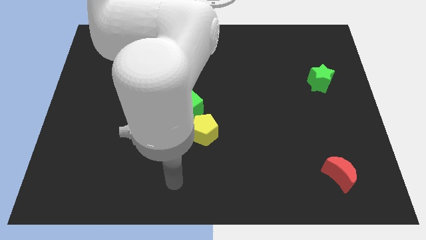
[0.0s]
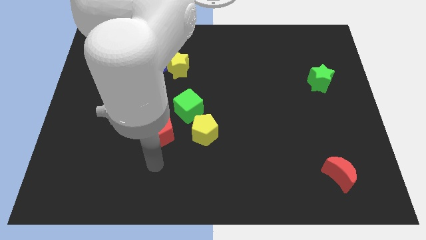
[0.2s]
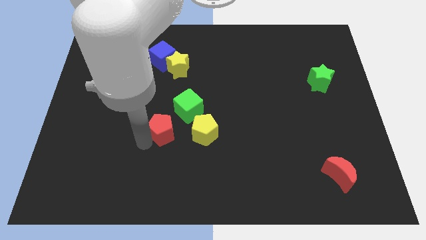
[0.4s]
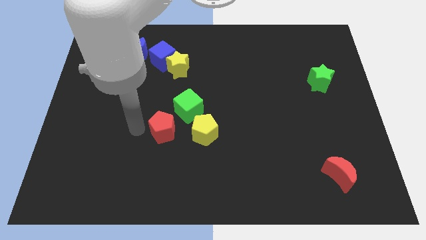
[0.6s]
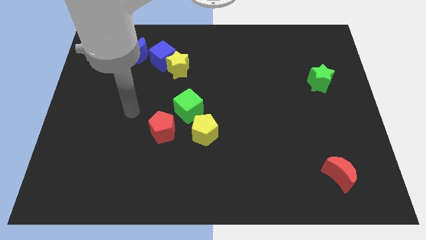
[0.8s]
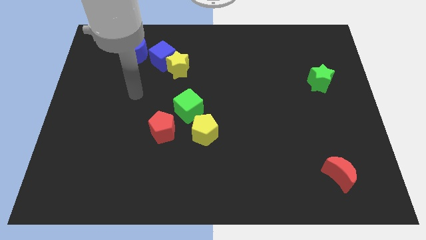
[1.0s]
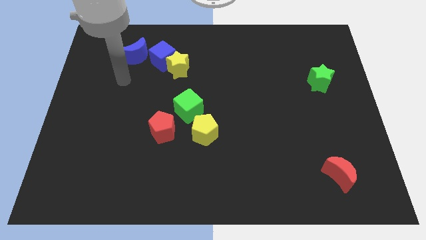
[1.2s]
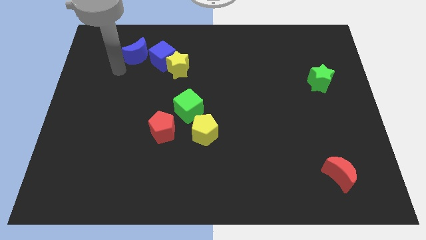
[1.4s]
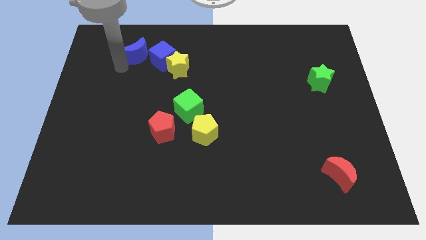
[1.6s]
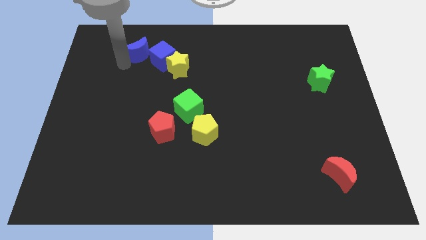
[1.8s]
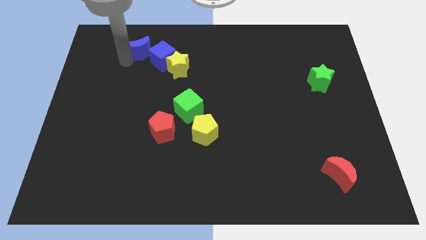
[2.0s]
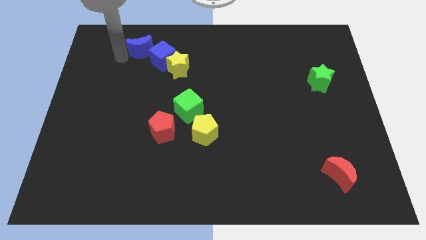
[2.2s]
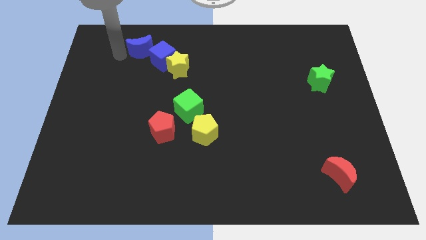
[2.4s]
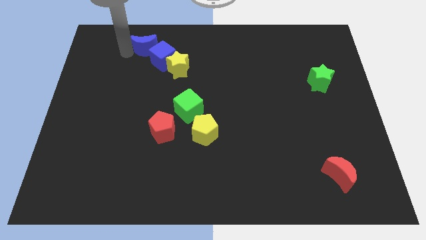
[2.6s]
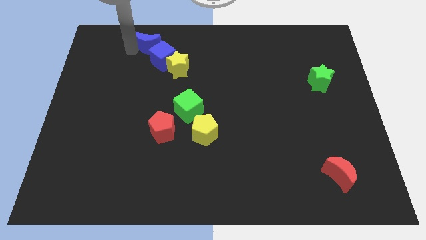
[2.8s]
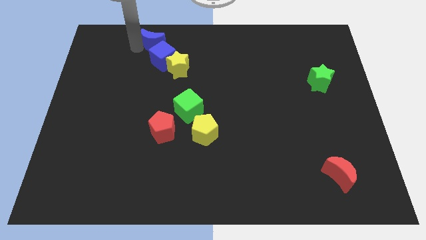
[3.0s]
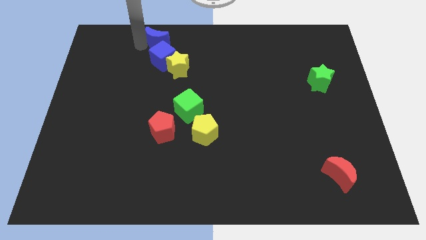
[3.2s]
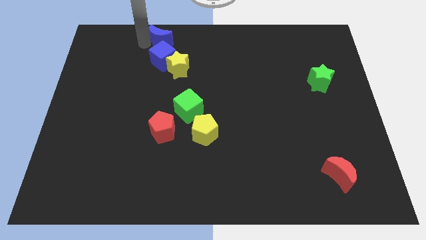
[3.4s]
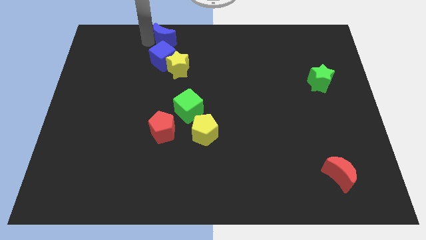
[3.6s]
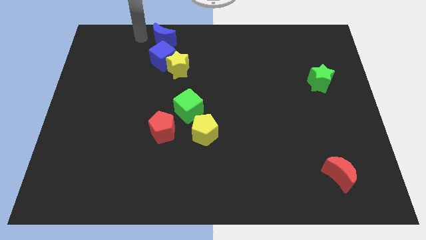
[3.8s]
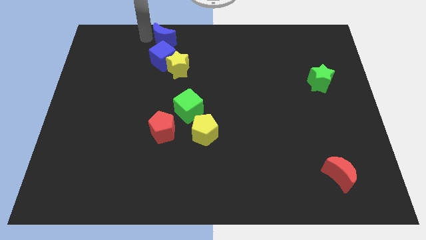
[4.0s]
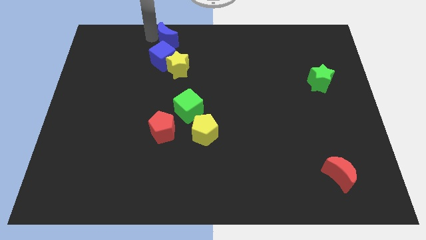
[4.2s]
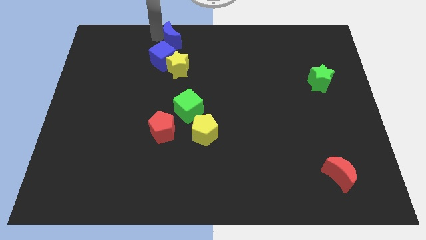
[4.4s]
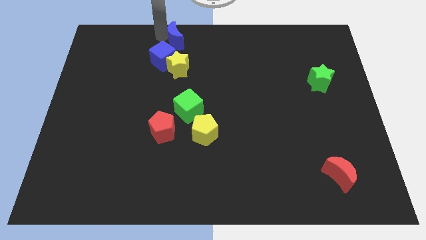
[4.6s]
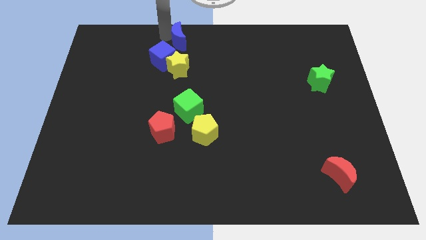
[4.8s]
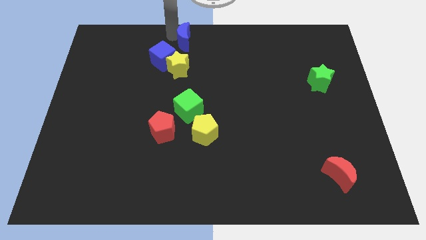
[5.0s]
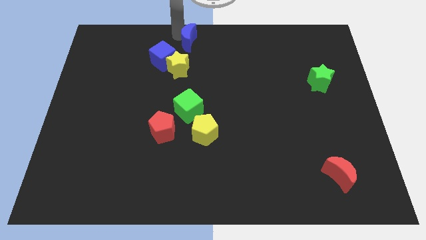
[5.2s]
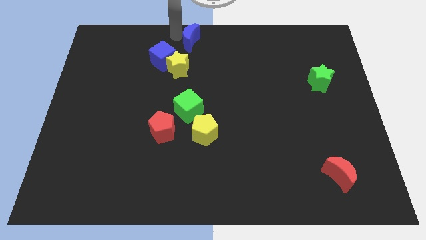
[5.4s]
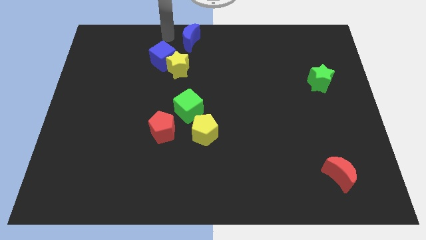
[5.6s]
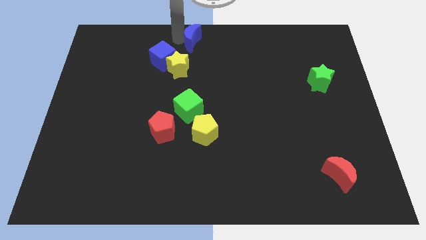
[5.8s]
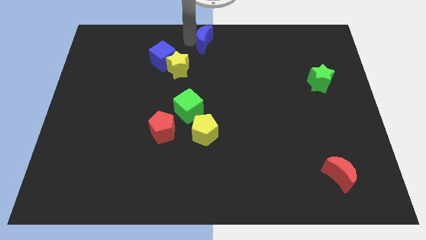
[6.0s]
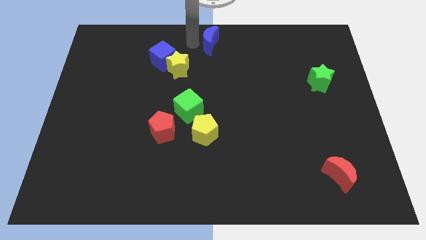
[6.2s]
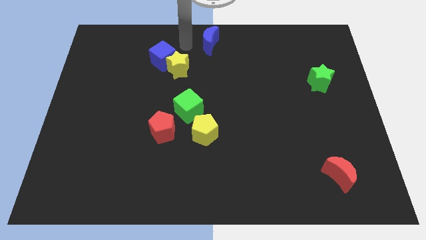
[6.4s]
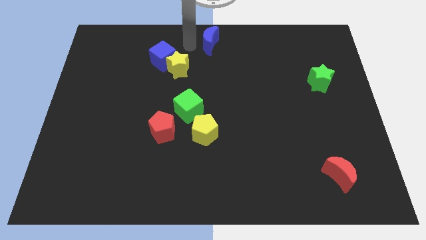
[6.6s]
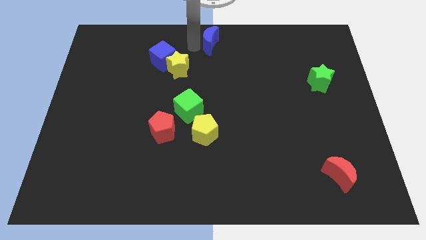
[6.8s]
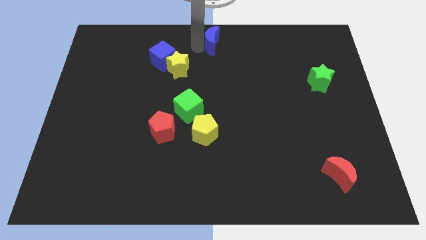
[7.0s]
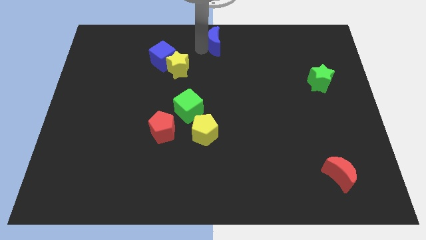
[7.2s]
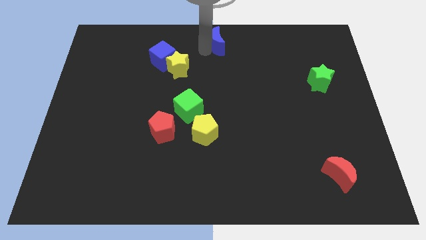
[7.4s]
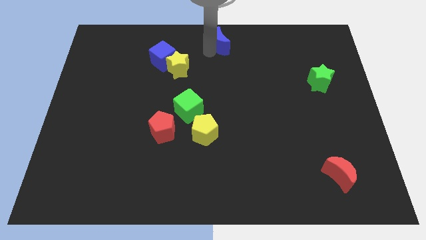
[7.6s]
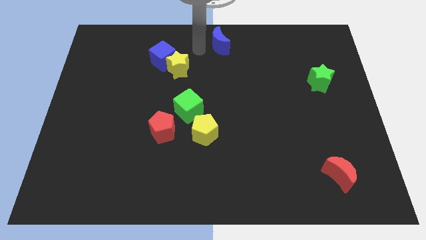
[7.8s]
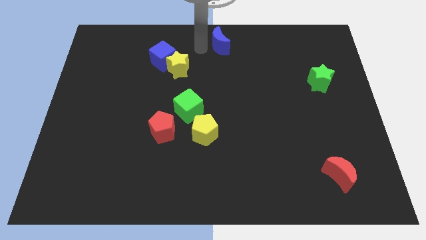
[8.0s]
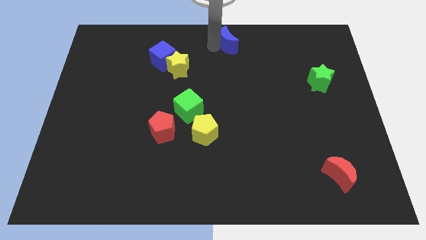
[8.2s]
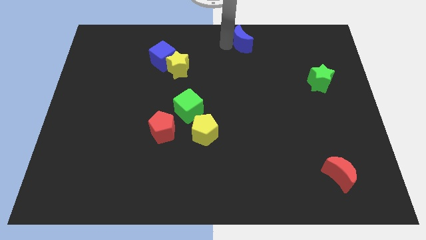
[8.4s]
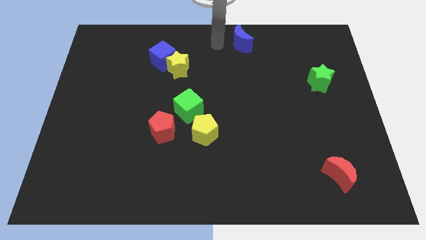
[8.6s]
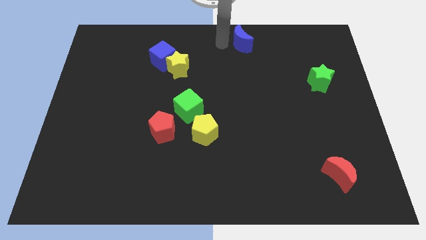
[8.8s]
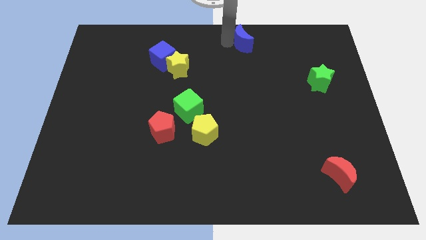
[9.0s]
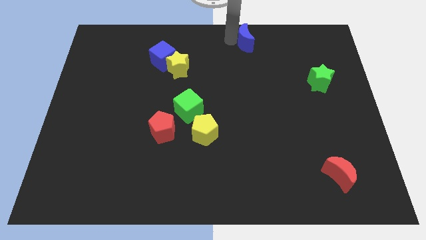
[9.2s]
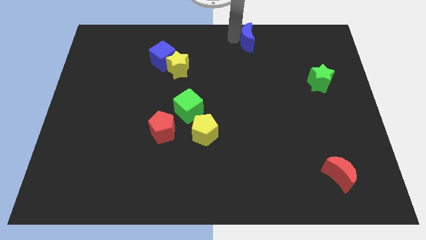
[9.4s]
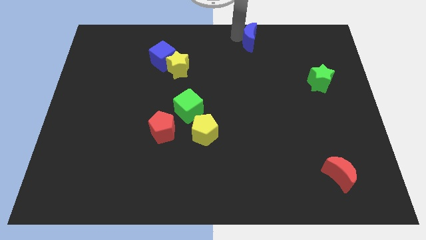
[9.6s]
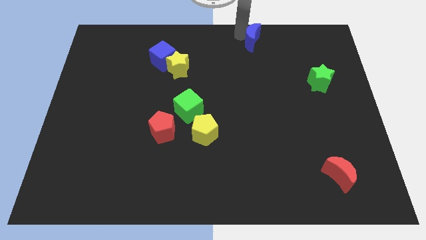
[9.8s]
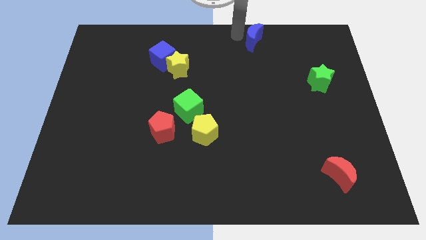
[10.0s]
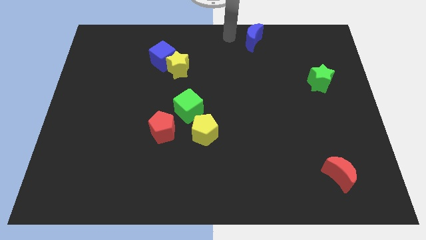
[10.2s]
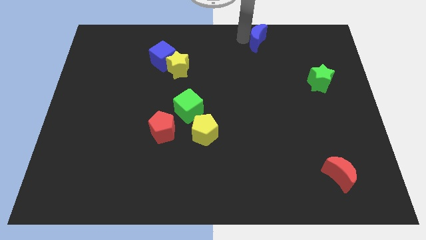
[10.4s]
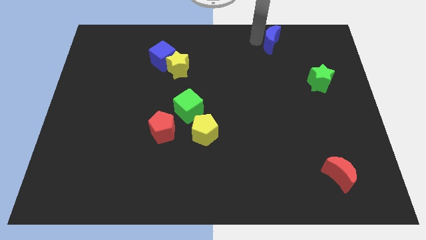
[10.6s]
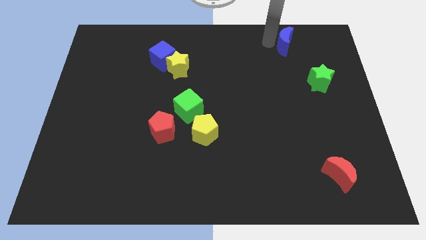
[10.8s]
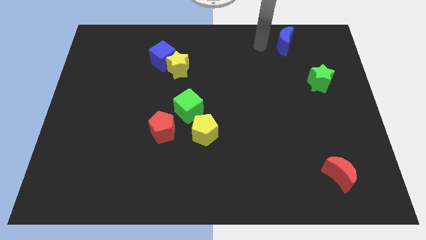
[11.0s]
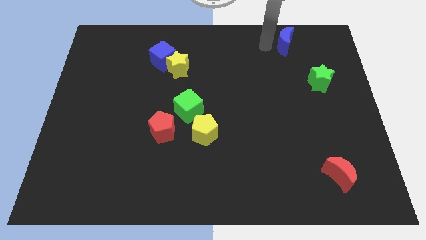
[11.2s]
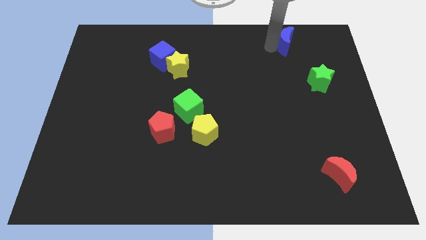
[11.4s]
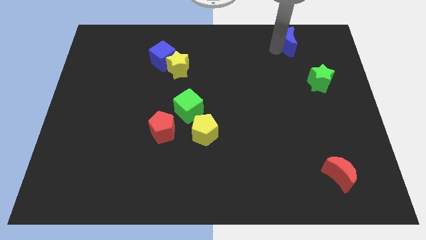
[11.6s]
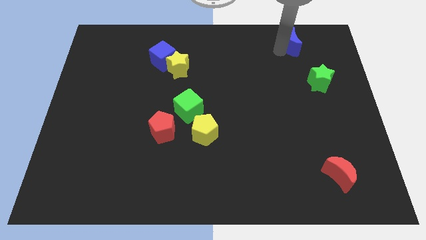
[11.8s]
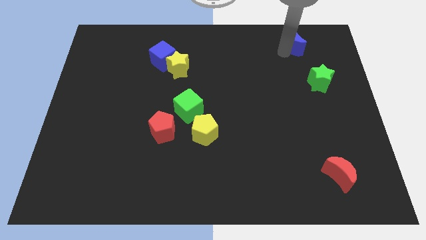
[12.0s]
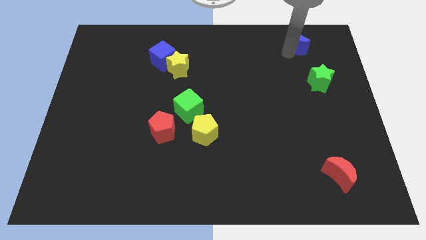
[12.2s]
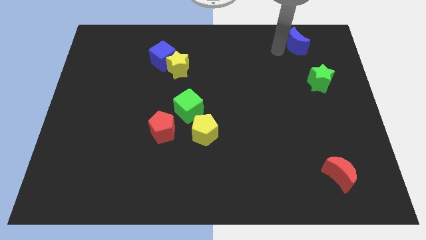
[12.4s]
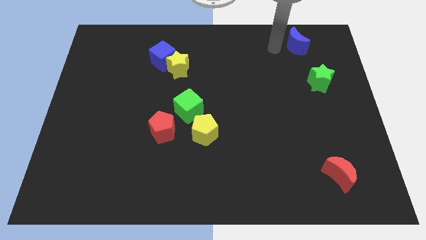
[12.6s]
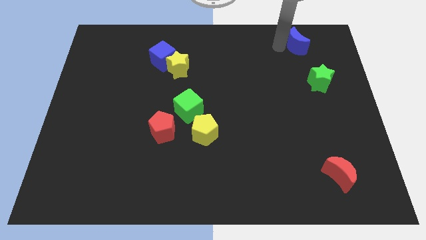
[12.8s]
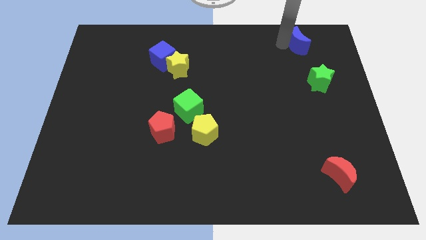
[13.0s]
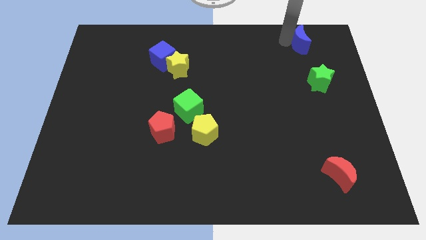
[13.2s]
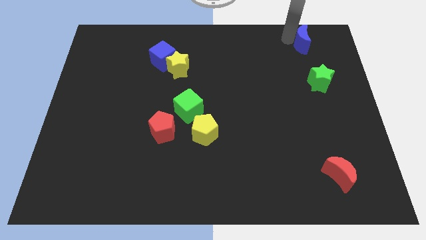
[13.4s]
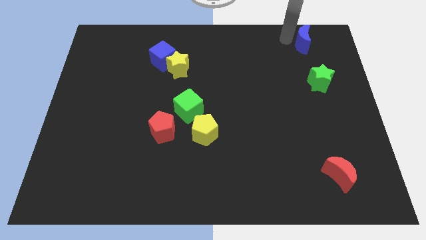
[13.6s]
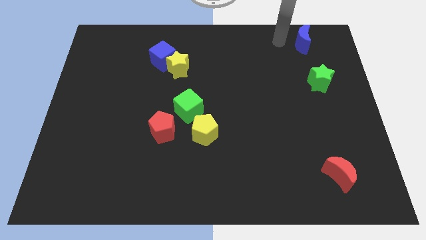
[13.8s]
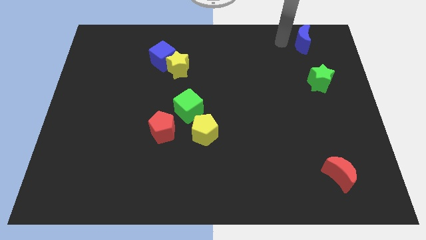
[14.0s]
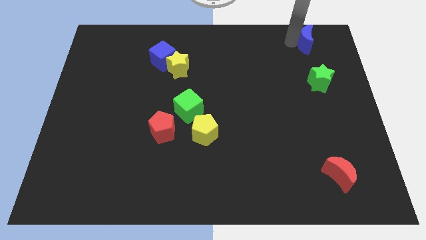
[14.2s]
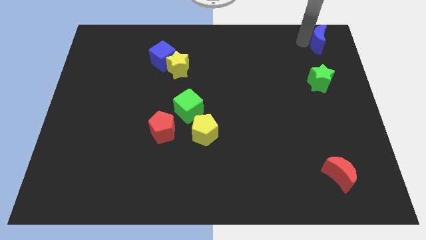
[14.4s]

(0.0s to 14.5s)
move the blue moon to the top right

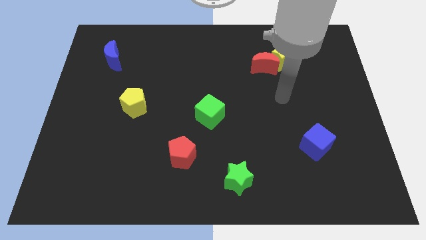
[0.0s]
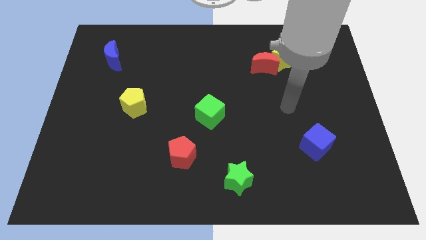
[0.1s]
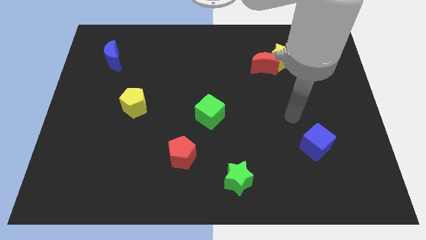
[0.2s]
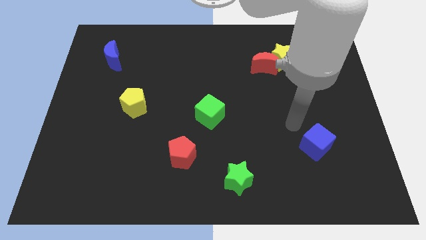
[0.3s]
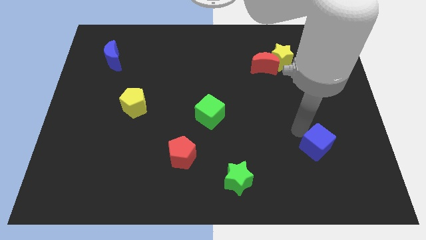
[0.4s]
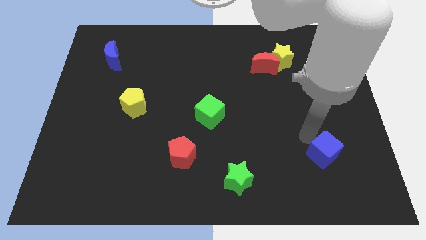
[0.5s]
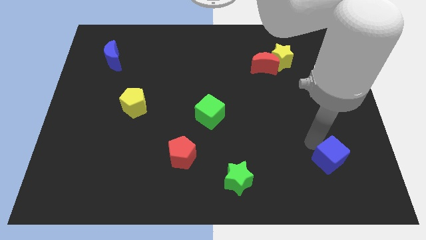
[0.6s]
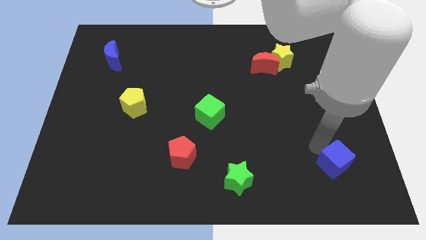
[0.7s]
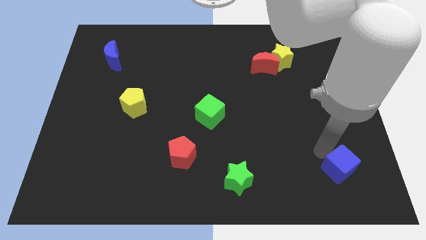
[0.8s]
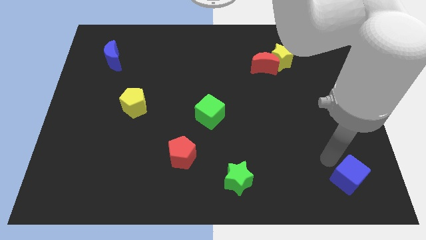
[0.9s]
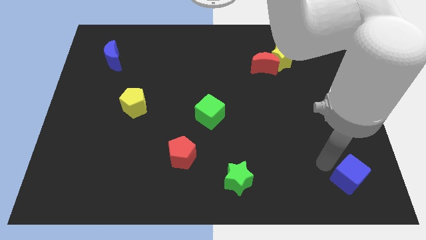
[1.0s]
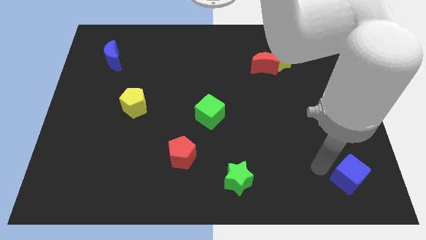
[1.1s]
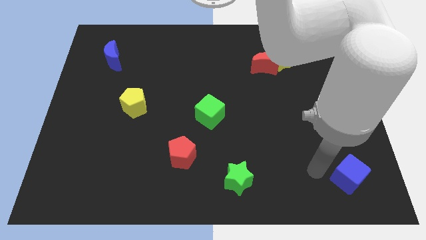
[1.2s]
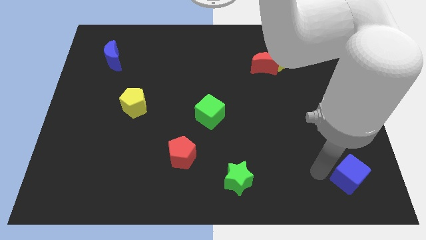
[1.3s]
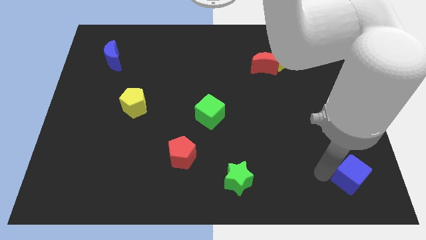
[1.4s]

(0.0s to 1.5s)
put the blue cube to the bottom right corner
